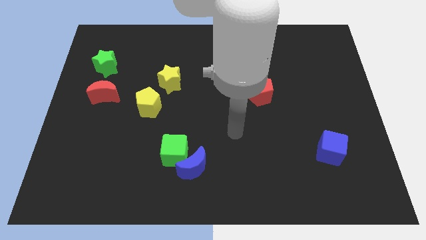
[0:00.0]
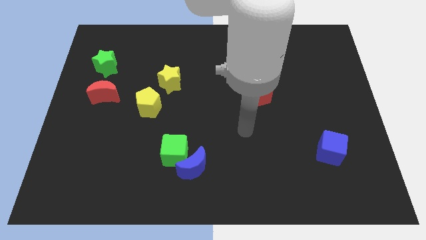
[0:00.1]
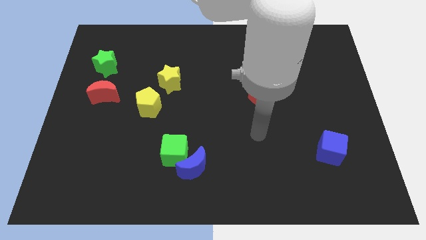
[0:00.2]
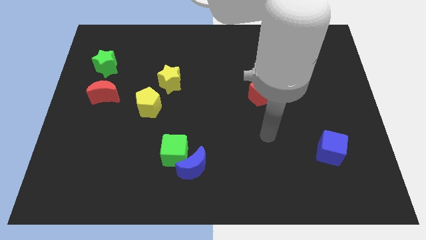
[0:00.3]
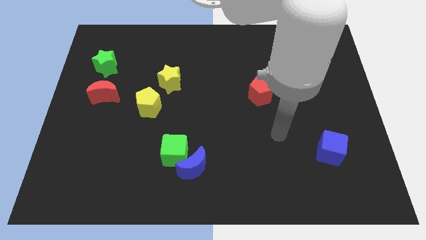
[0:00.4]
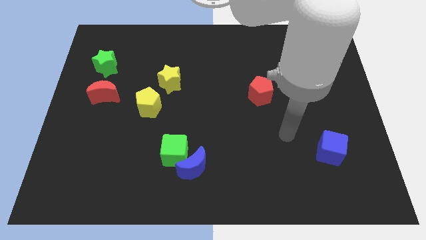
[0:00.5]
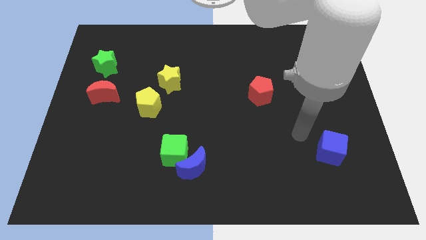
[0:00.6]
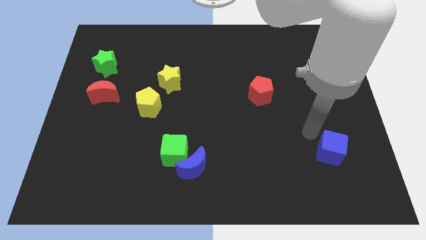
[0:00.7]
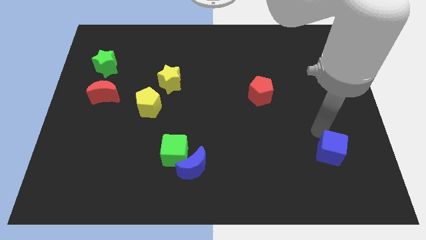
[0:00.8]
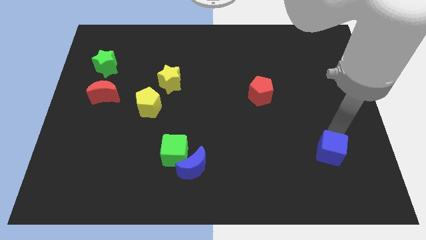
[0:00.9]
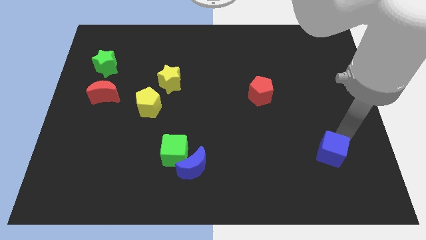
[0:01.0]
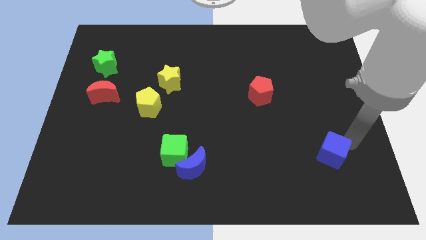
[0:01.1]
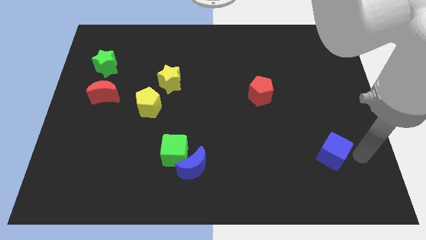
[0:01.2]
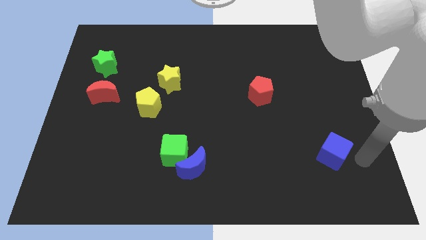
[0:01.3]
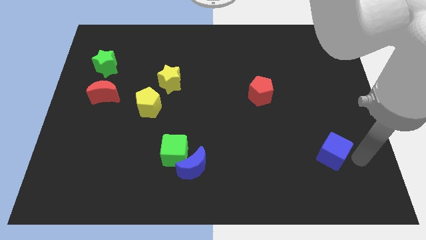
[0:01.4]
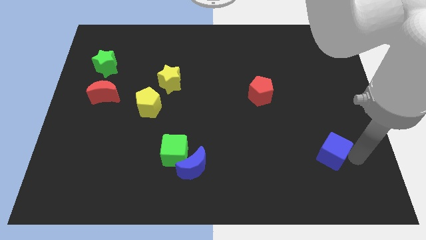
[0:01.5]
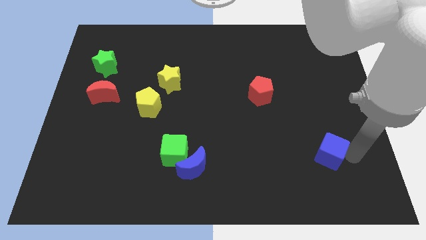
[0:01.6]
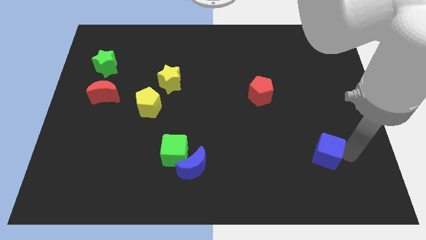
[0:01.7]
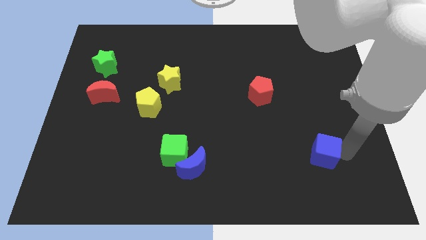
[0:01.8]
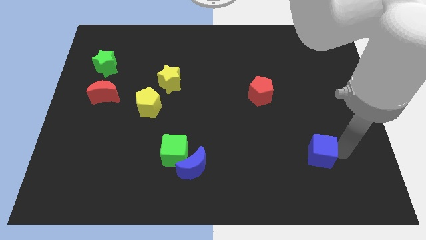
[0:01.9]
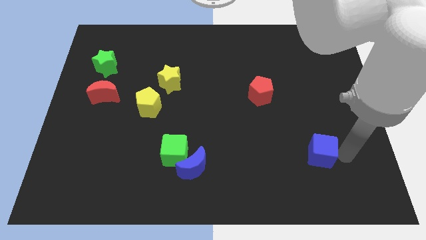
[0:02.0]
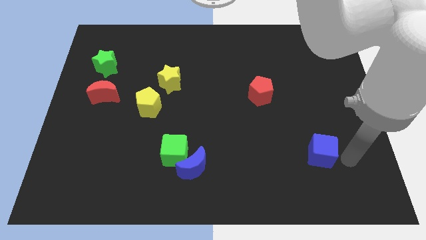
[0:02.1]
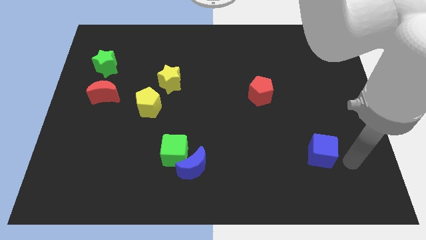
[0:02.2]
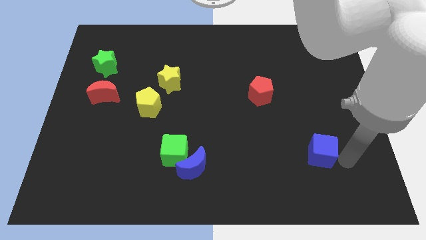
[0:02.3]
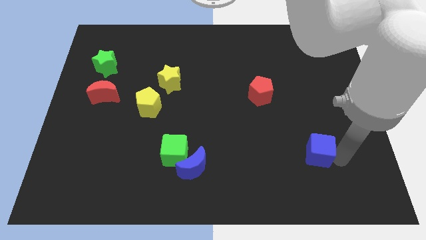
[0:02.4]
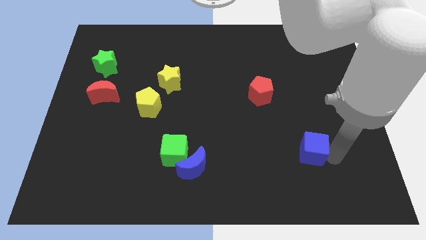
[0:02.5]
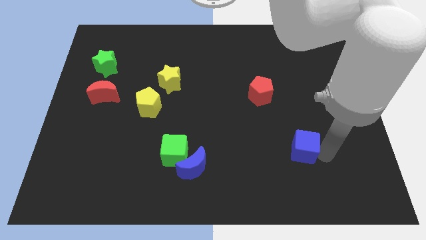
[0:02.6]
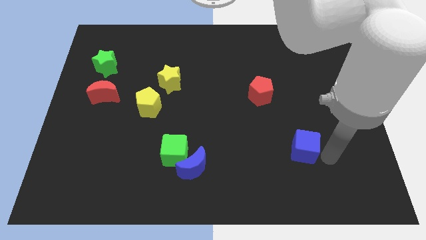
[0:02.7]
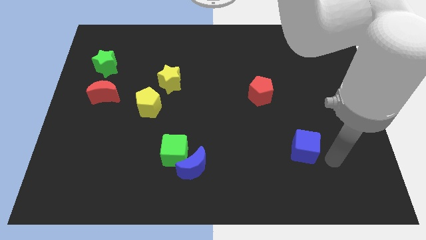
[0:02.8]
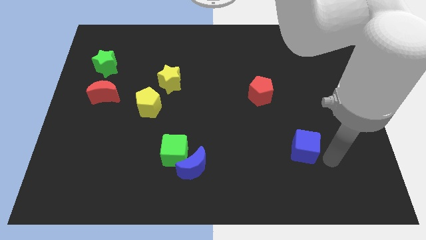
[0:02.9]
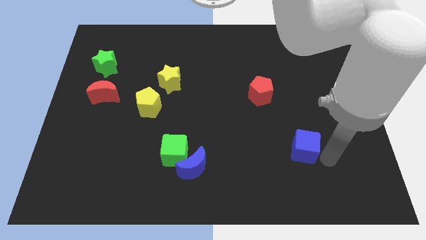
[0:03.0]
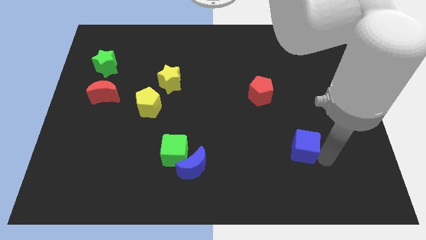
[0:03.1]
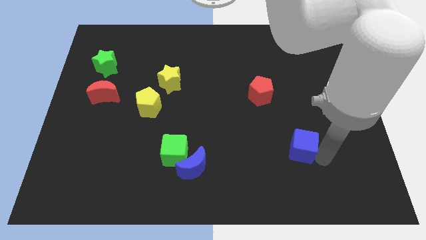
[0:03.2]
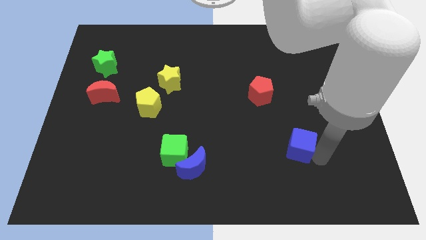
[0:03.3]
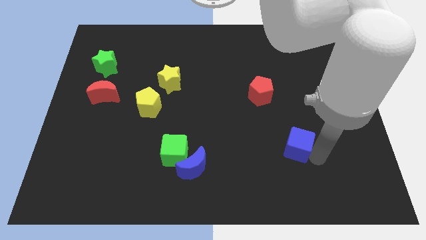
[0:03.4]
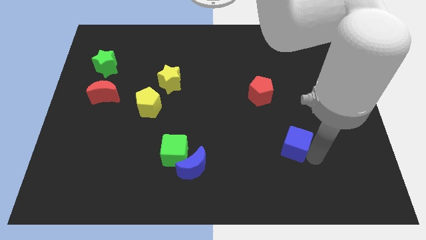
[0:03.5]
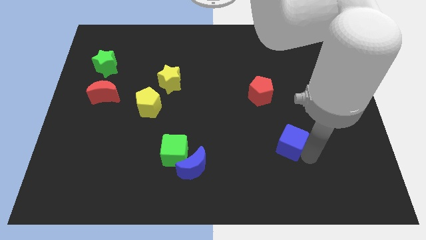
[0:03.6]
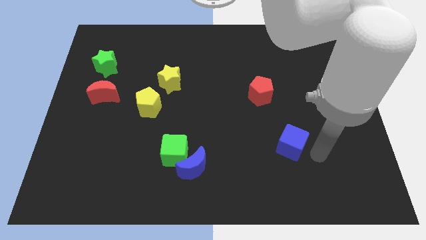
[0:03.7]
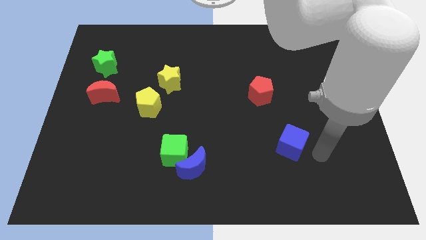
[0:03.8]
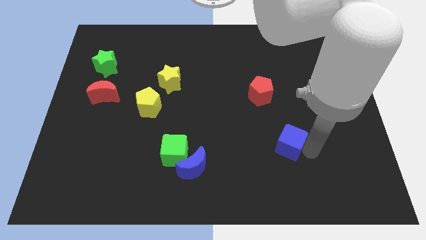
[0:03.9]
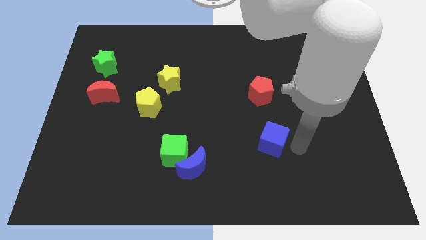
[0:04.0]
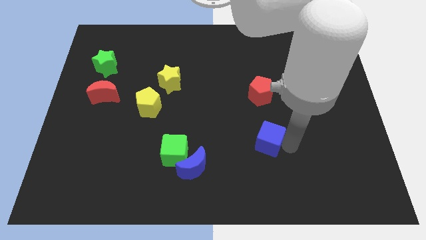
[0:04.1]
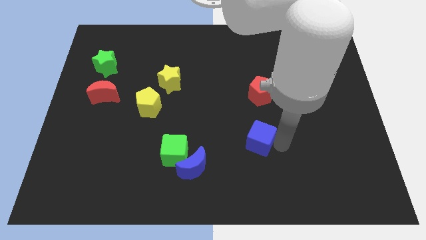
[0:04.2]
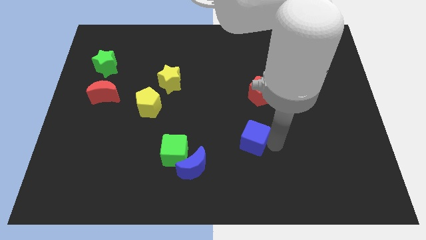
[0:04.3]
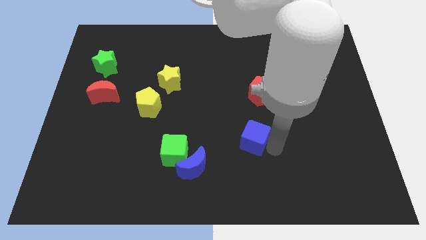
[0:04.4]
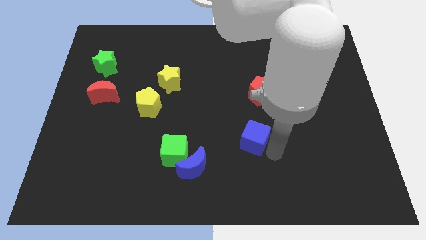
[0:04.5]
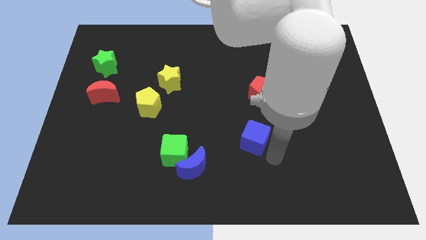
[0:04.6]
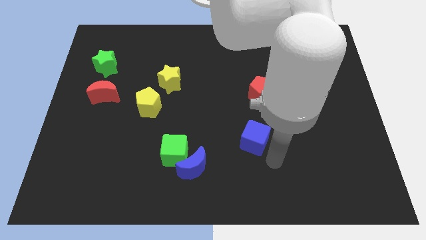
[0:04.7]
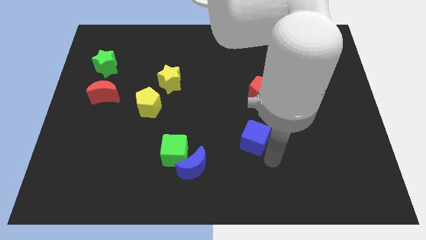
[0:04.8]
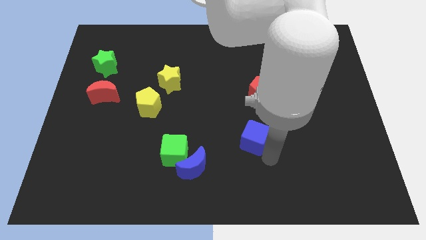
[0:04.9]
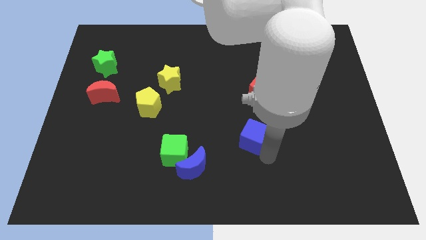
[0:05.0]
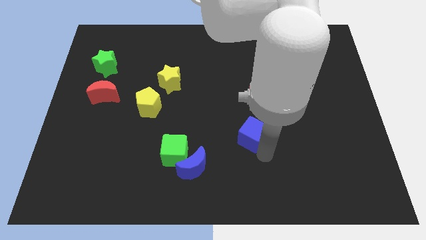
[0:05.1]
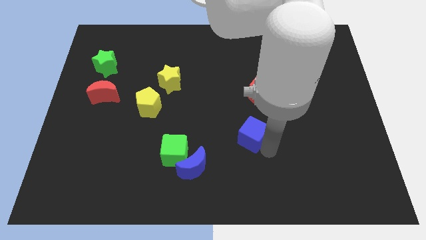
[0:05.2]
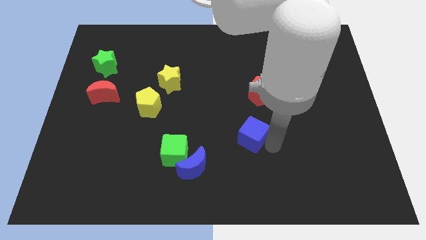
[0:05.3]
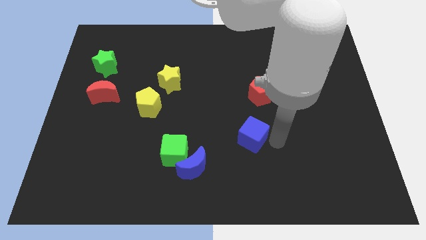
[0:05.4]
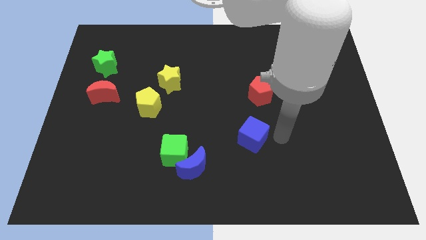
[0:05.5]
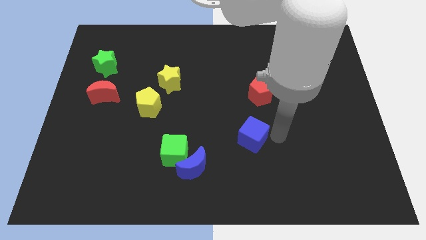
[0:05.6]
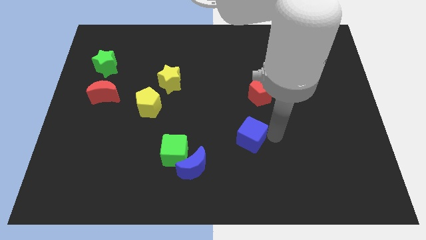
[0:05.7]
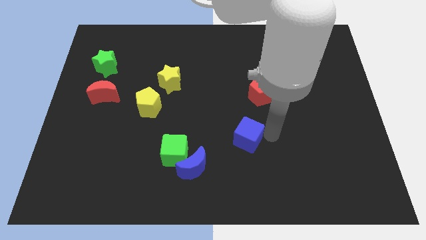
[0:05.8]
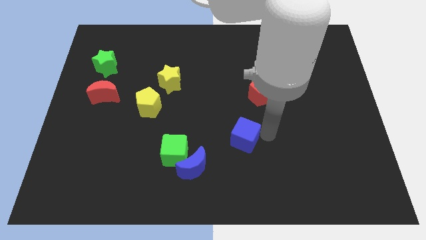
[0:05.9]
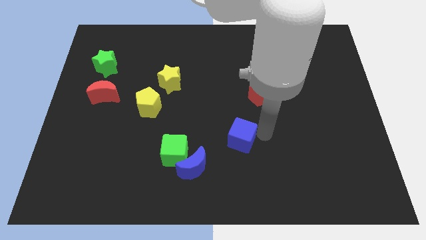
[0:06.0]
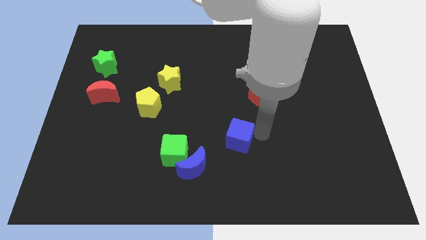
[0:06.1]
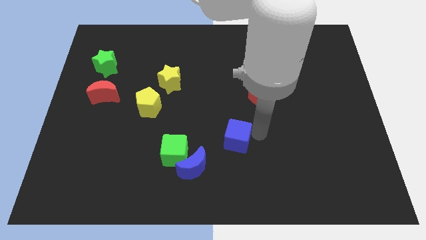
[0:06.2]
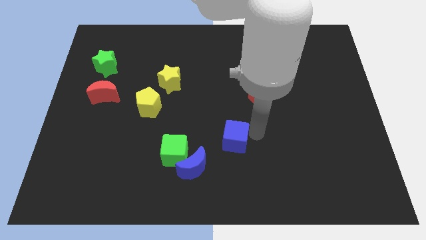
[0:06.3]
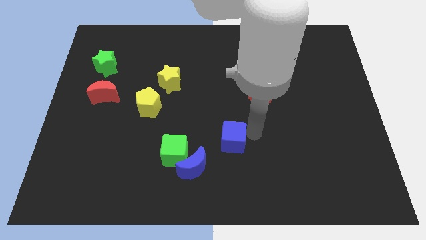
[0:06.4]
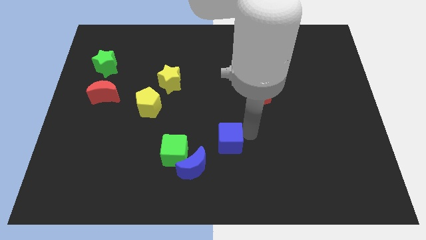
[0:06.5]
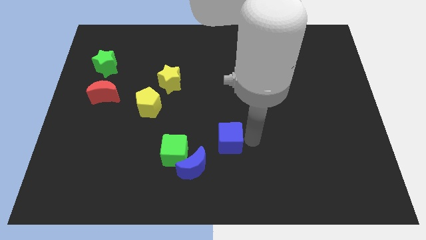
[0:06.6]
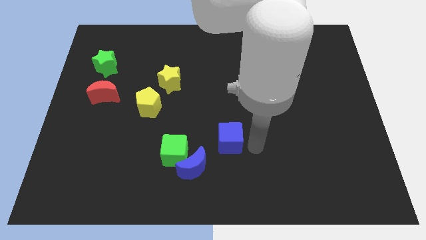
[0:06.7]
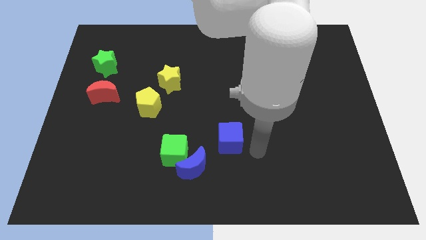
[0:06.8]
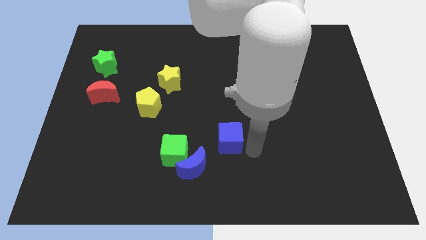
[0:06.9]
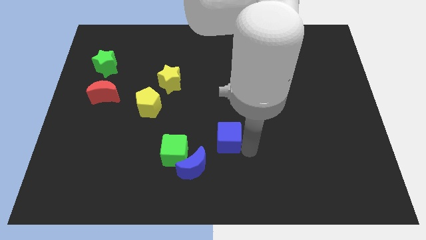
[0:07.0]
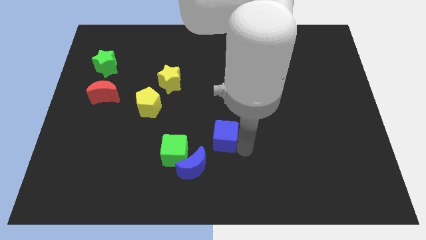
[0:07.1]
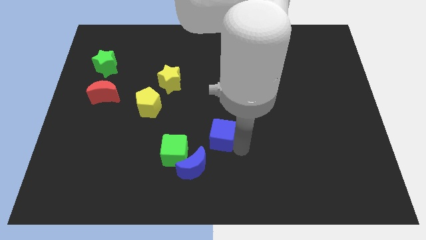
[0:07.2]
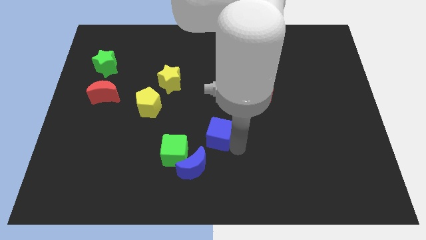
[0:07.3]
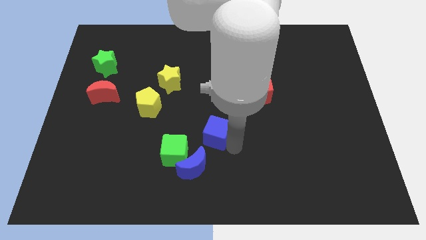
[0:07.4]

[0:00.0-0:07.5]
put the blue cube above the blue moon
